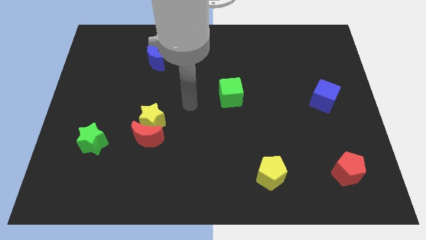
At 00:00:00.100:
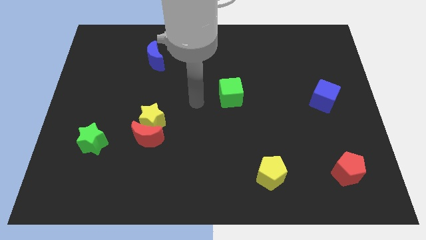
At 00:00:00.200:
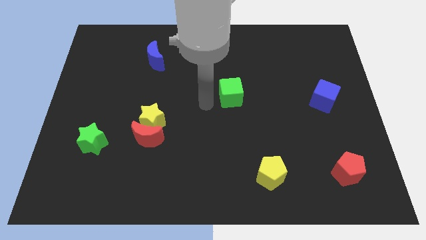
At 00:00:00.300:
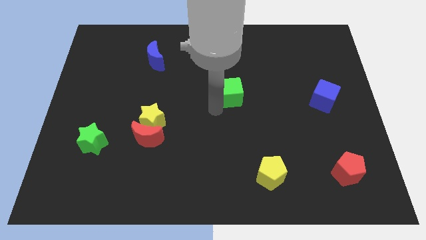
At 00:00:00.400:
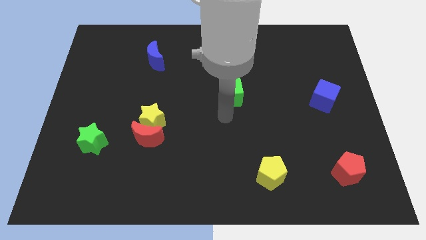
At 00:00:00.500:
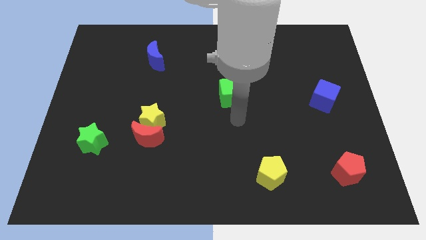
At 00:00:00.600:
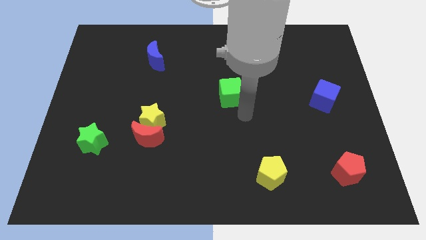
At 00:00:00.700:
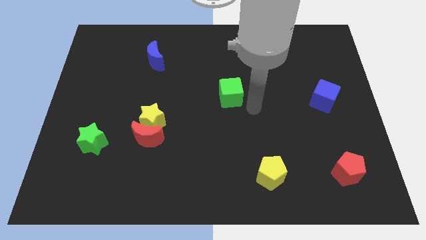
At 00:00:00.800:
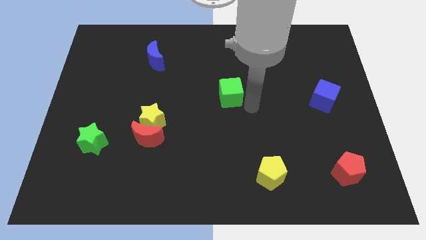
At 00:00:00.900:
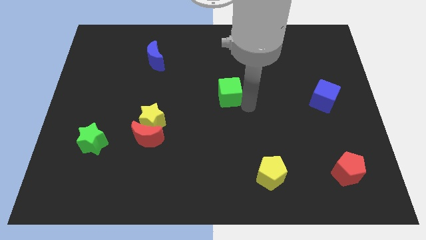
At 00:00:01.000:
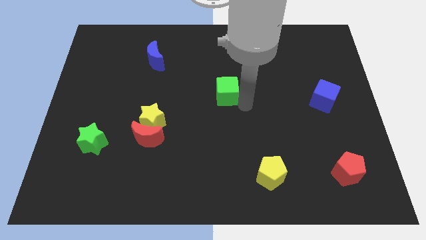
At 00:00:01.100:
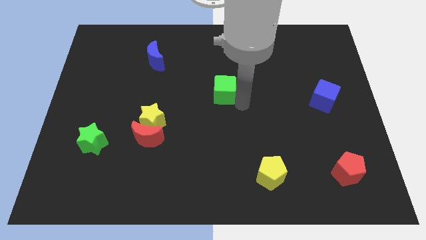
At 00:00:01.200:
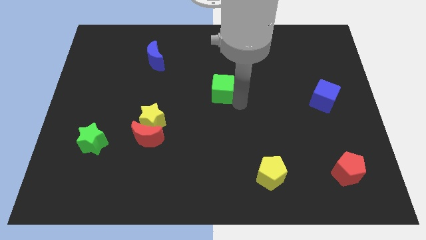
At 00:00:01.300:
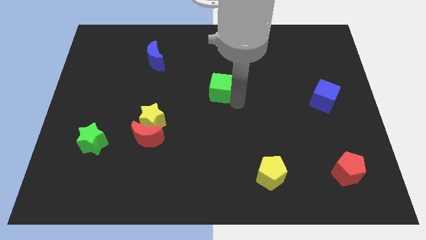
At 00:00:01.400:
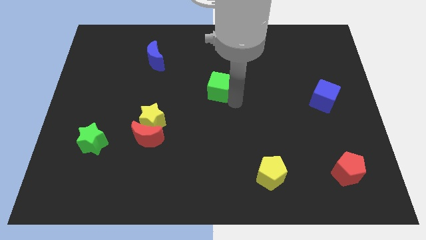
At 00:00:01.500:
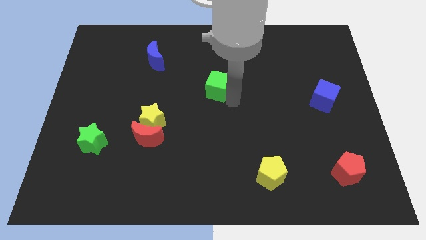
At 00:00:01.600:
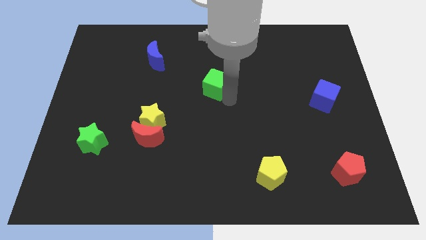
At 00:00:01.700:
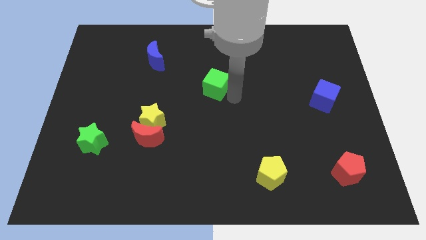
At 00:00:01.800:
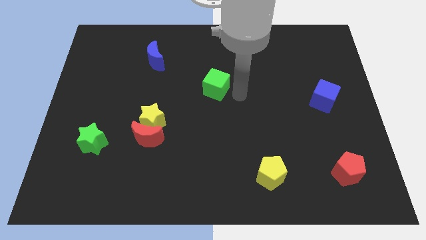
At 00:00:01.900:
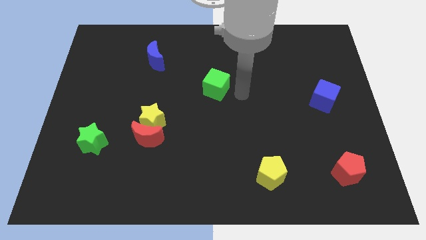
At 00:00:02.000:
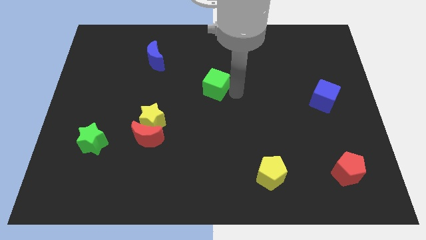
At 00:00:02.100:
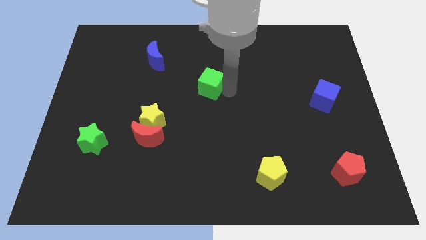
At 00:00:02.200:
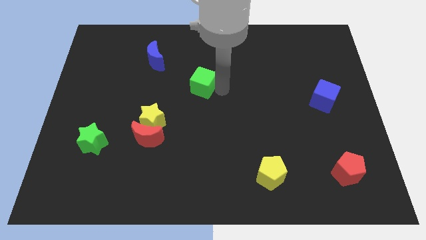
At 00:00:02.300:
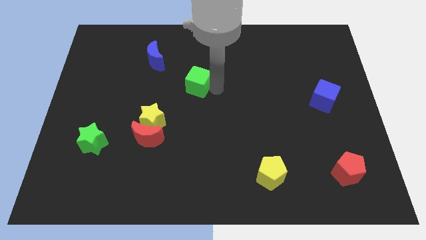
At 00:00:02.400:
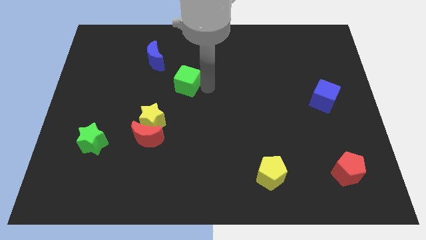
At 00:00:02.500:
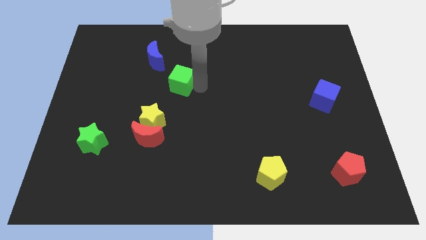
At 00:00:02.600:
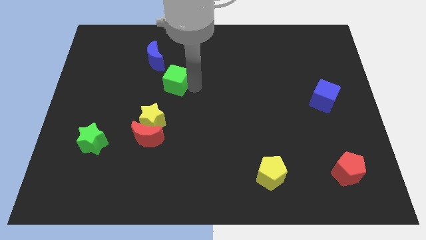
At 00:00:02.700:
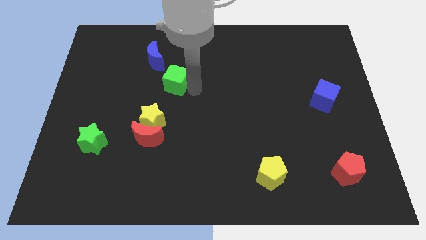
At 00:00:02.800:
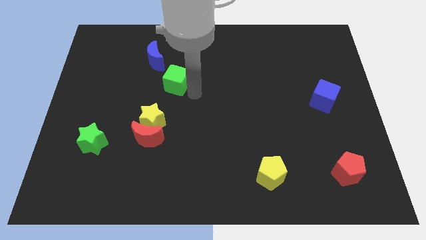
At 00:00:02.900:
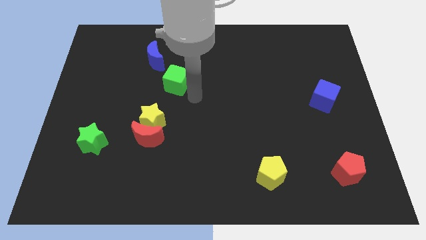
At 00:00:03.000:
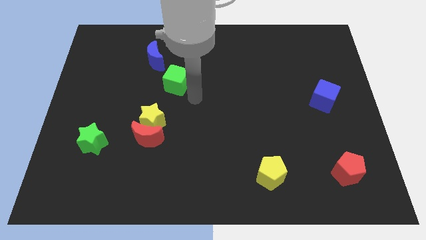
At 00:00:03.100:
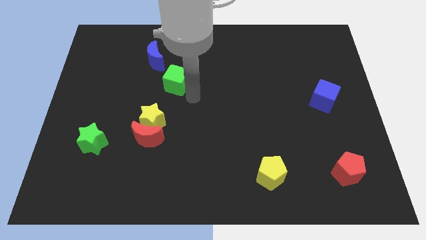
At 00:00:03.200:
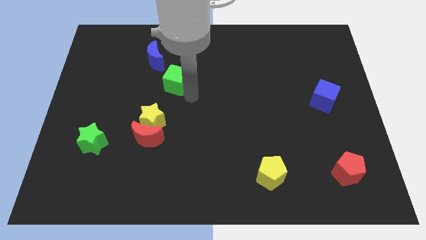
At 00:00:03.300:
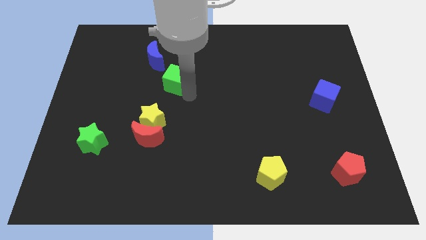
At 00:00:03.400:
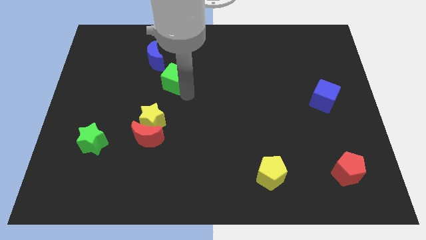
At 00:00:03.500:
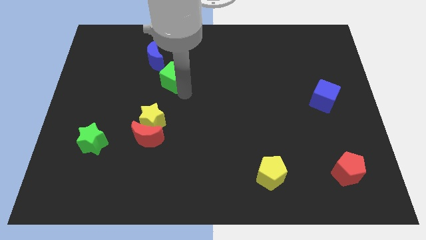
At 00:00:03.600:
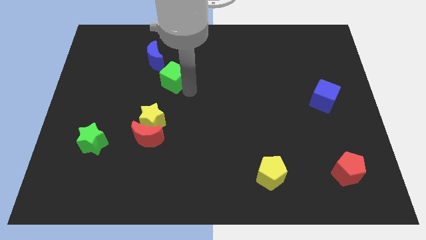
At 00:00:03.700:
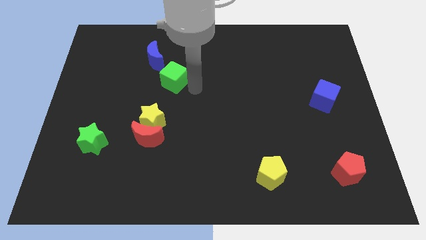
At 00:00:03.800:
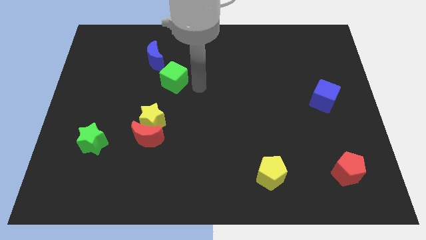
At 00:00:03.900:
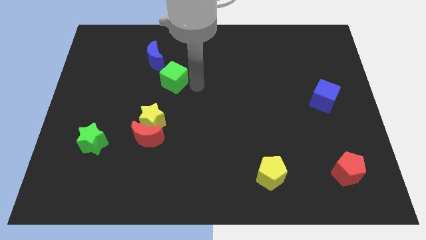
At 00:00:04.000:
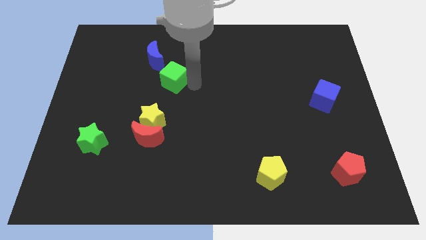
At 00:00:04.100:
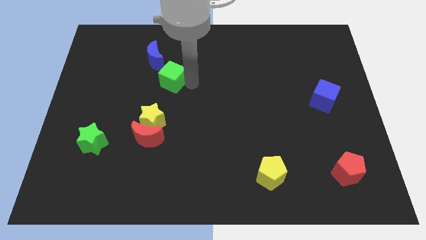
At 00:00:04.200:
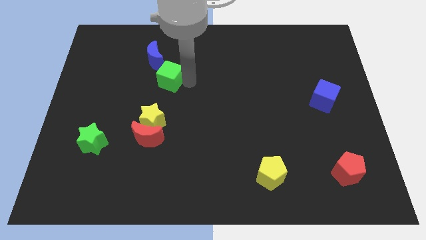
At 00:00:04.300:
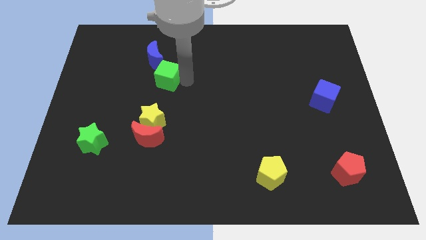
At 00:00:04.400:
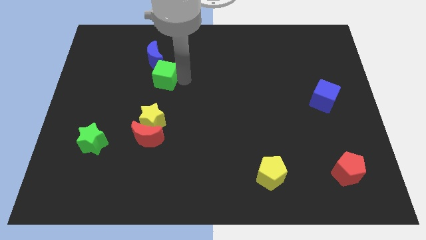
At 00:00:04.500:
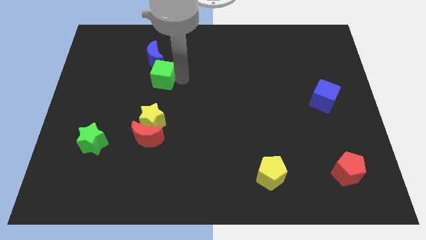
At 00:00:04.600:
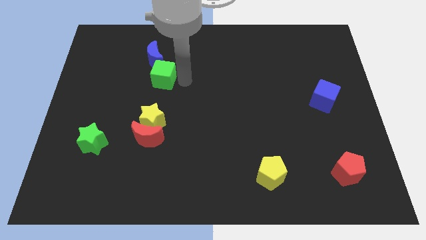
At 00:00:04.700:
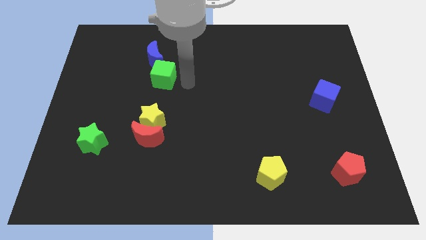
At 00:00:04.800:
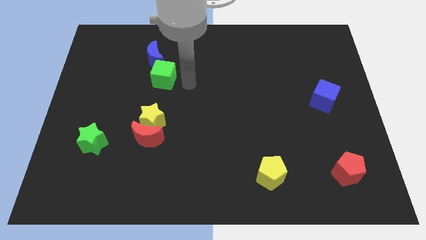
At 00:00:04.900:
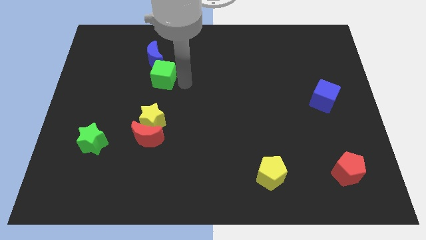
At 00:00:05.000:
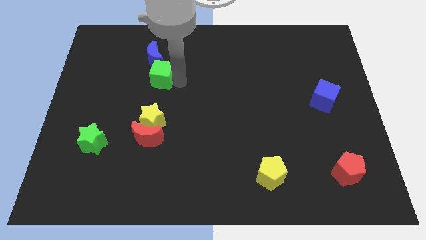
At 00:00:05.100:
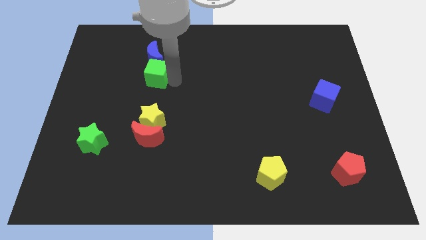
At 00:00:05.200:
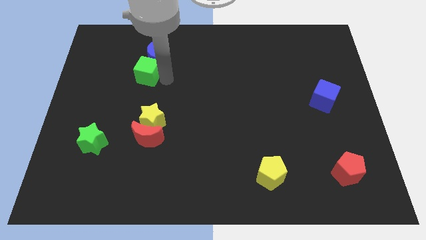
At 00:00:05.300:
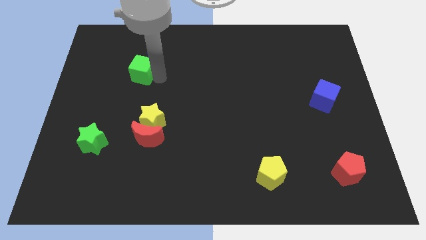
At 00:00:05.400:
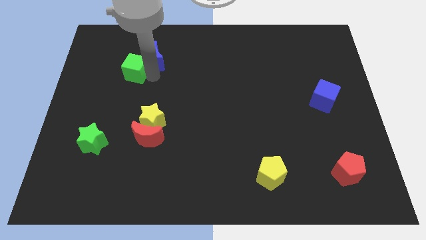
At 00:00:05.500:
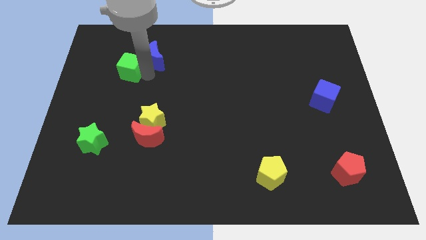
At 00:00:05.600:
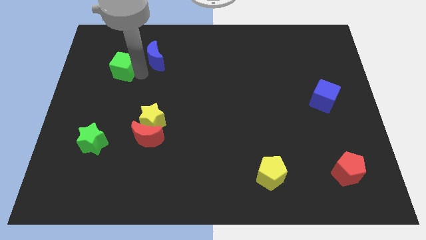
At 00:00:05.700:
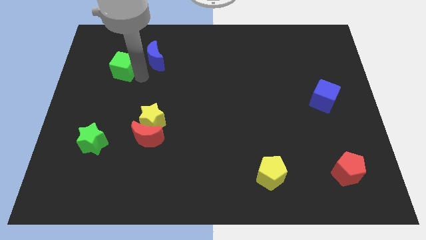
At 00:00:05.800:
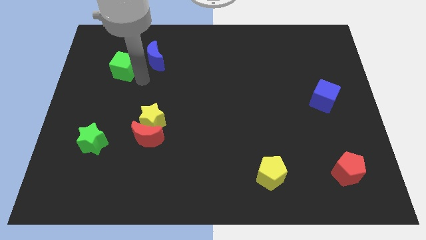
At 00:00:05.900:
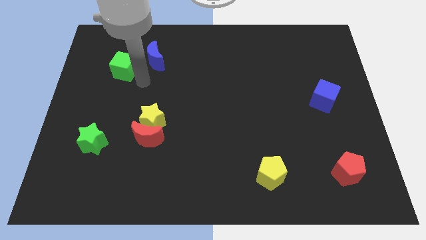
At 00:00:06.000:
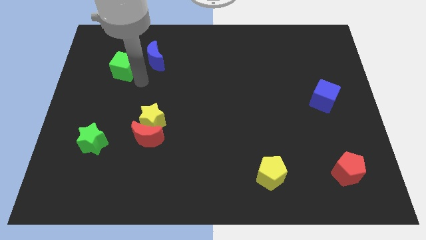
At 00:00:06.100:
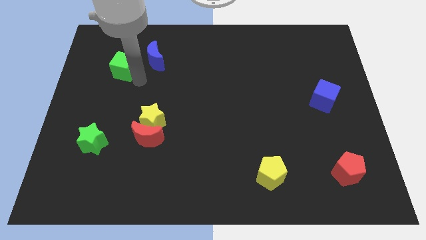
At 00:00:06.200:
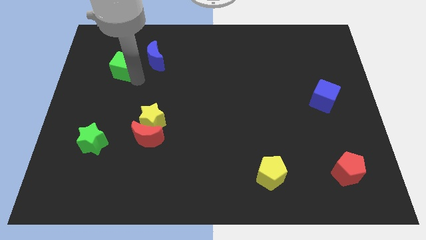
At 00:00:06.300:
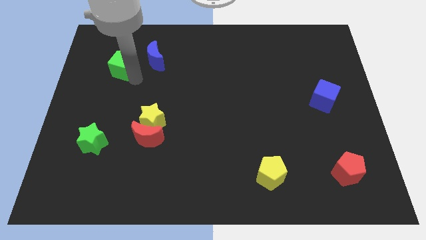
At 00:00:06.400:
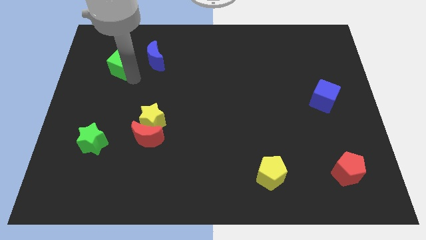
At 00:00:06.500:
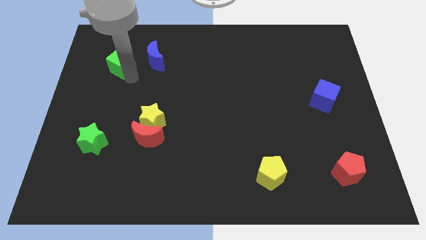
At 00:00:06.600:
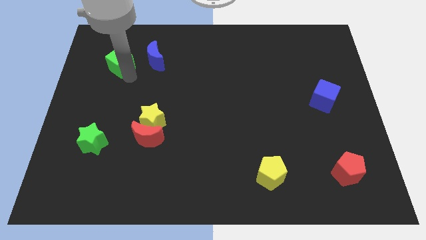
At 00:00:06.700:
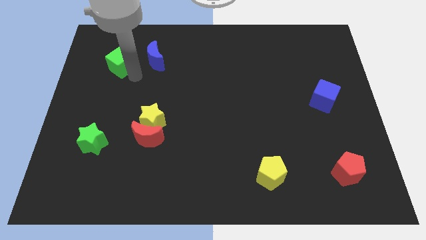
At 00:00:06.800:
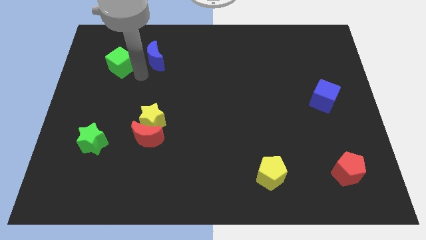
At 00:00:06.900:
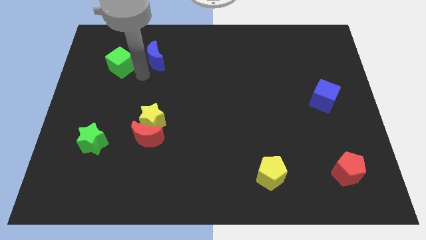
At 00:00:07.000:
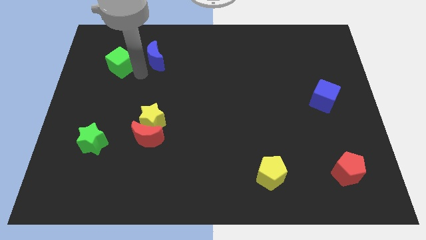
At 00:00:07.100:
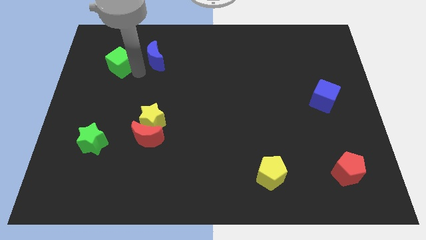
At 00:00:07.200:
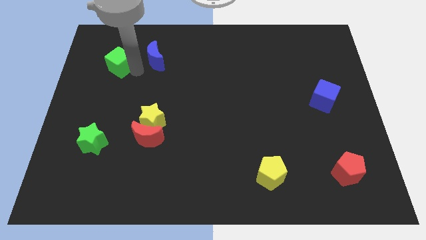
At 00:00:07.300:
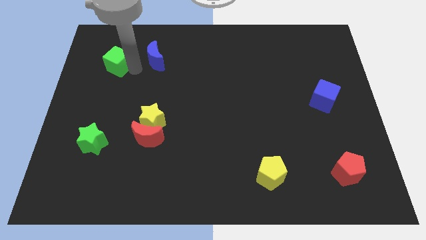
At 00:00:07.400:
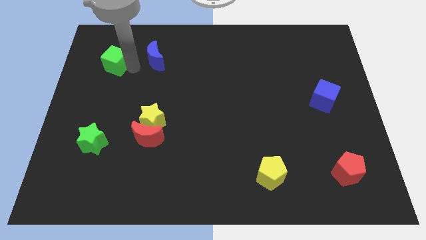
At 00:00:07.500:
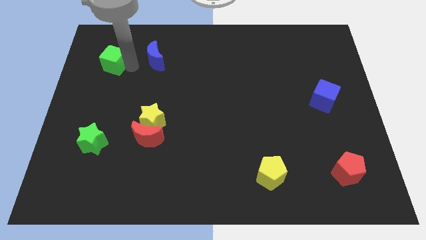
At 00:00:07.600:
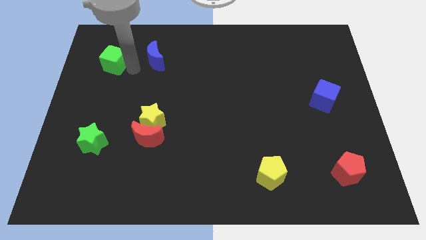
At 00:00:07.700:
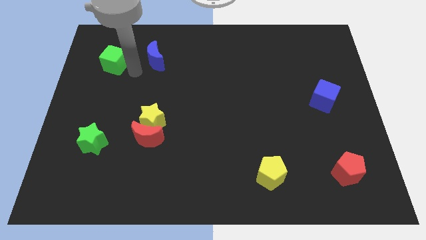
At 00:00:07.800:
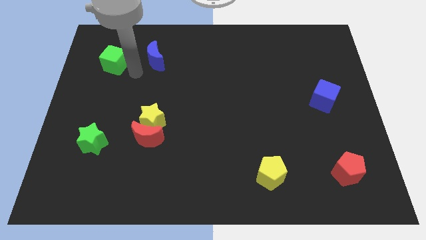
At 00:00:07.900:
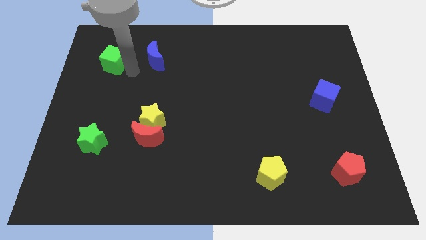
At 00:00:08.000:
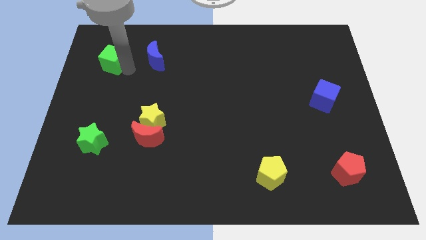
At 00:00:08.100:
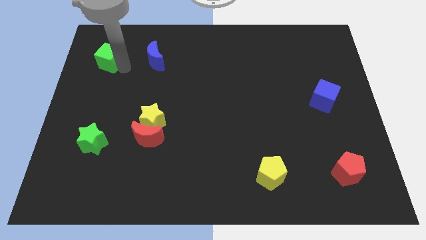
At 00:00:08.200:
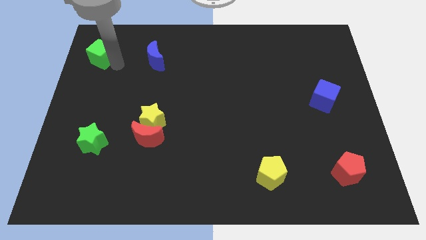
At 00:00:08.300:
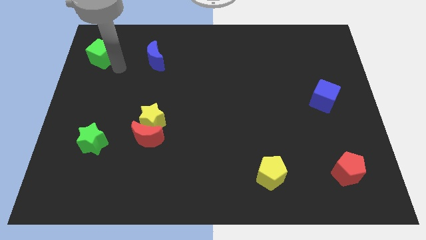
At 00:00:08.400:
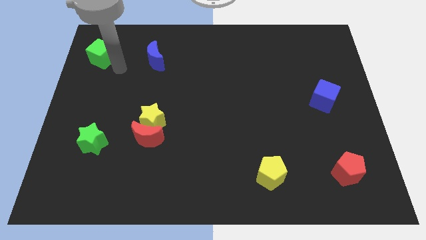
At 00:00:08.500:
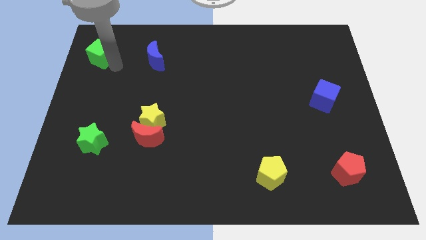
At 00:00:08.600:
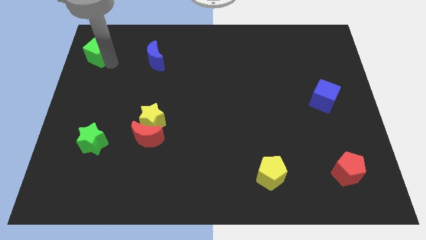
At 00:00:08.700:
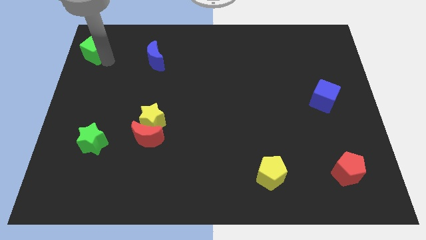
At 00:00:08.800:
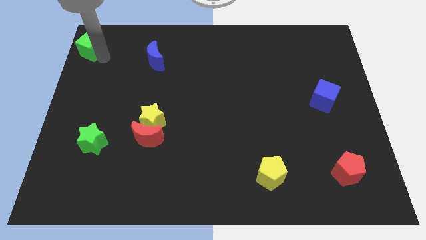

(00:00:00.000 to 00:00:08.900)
push the green cube to the top left
